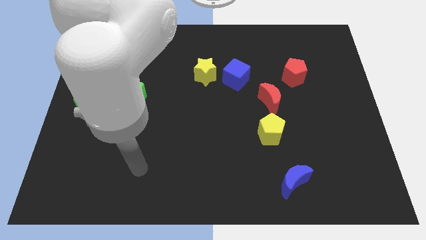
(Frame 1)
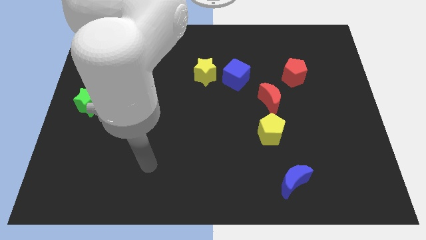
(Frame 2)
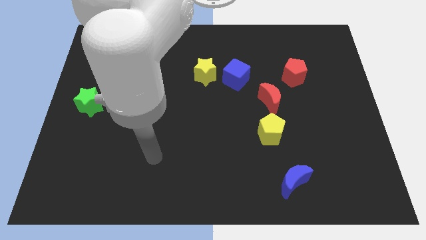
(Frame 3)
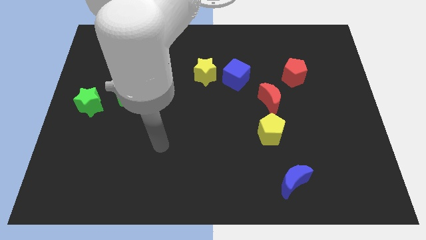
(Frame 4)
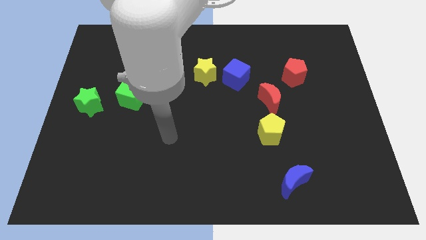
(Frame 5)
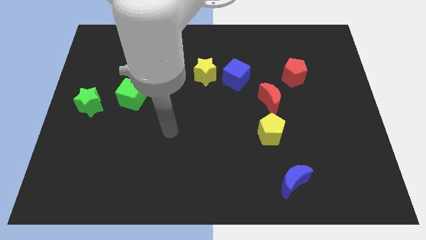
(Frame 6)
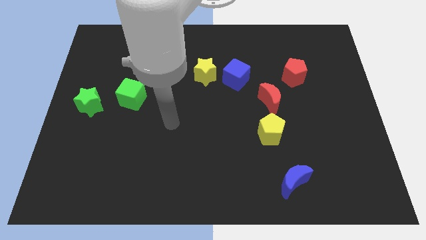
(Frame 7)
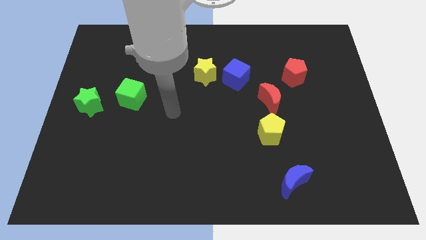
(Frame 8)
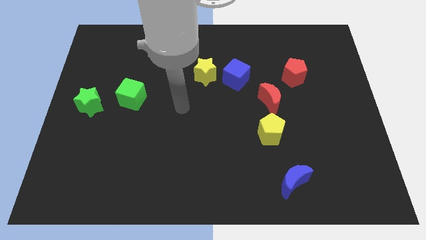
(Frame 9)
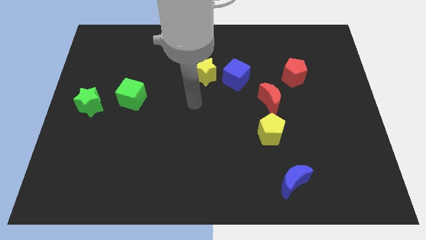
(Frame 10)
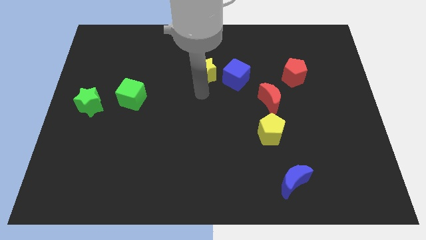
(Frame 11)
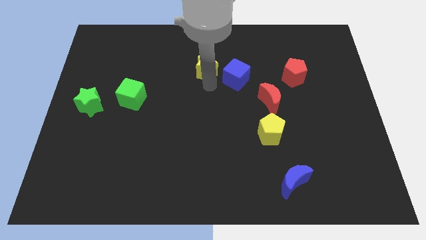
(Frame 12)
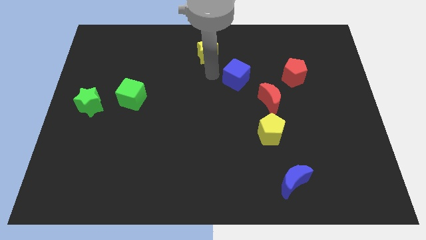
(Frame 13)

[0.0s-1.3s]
pull the blue cube apart from the yellow star

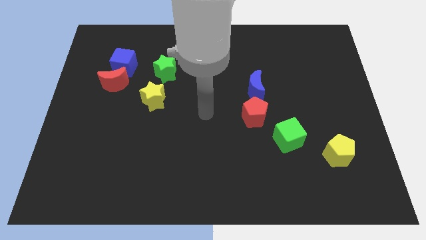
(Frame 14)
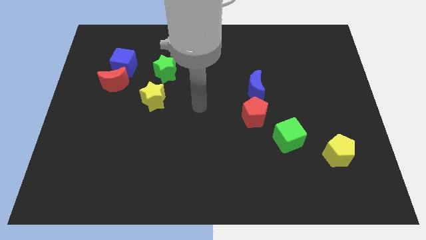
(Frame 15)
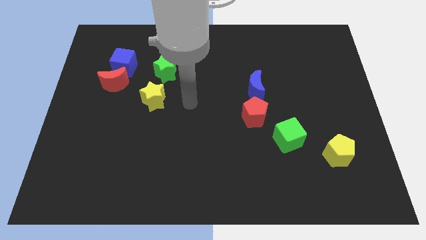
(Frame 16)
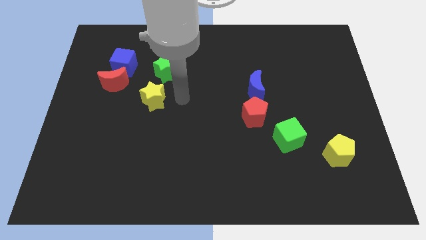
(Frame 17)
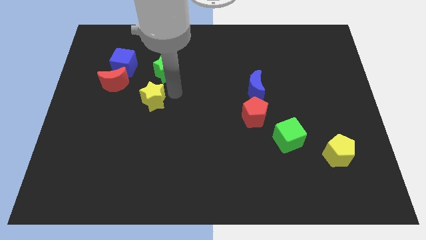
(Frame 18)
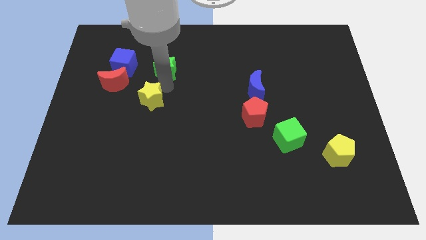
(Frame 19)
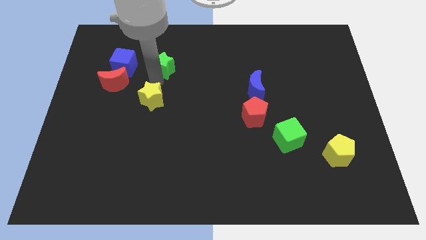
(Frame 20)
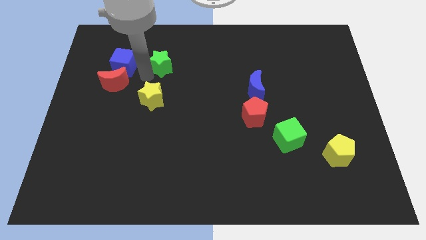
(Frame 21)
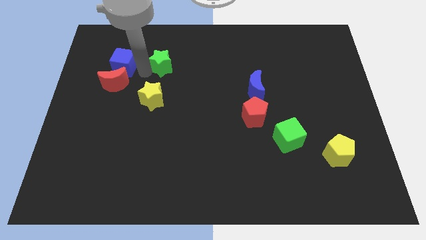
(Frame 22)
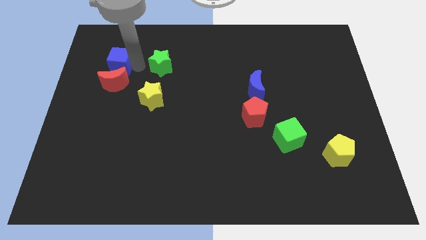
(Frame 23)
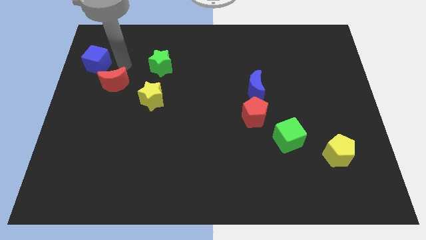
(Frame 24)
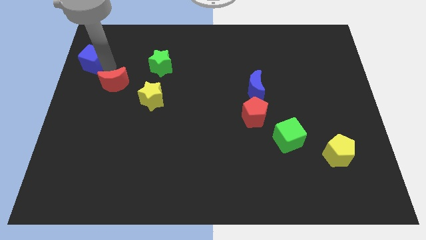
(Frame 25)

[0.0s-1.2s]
pull the red moon apart from the blue cube

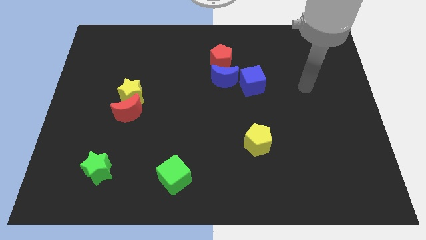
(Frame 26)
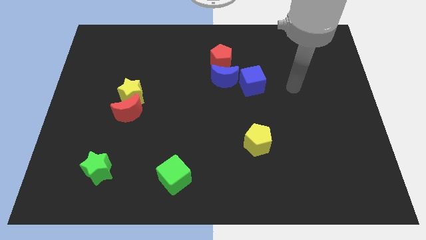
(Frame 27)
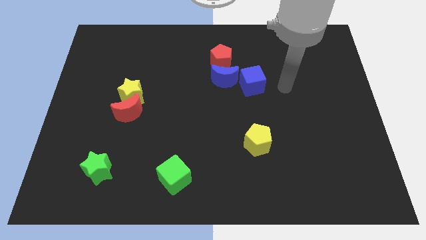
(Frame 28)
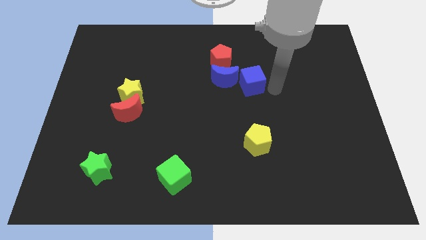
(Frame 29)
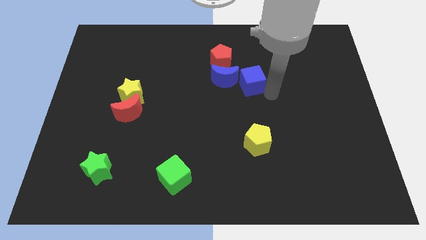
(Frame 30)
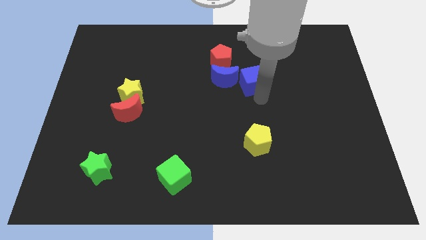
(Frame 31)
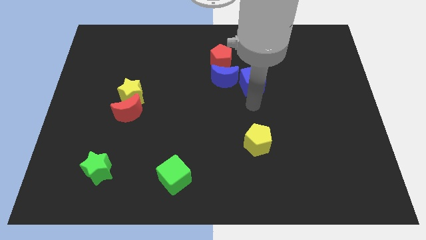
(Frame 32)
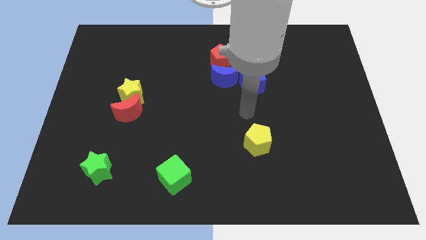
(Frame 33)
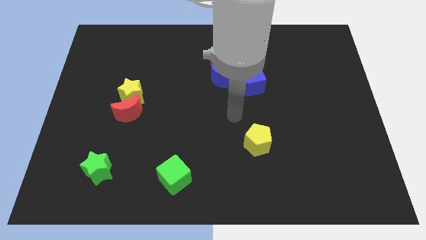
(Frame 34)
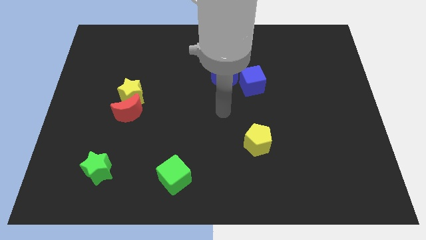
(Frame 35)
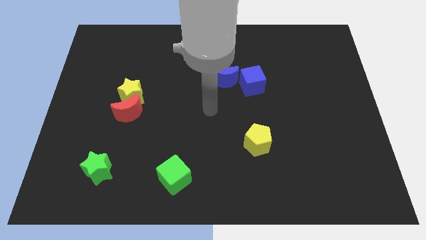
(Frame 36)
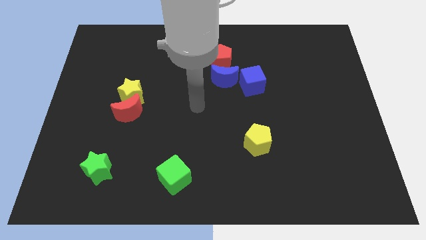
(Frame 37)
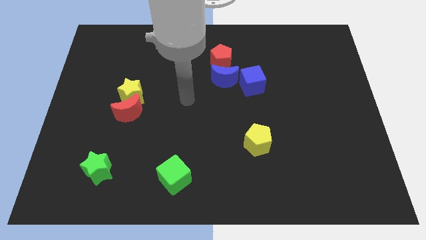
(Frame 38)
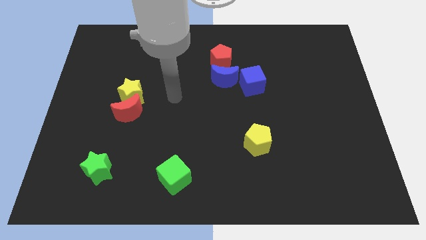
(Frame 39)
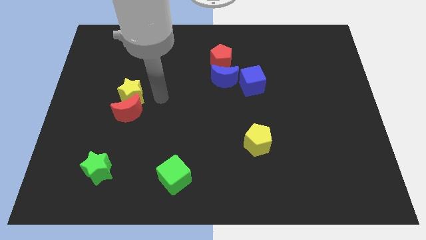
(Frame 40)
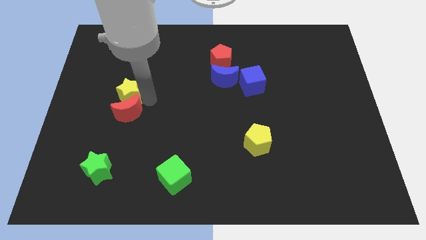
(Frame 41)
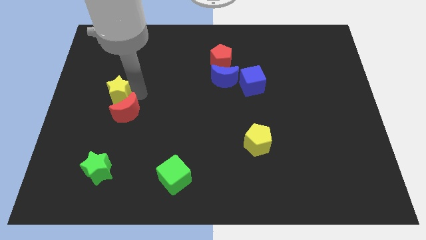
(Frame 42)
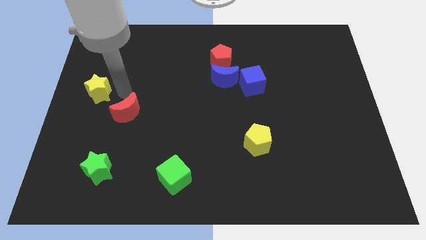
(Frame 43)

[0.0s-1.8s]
move the red moon away from the yellow star

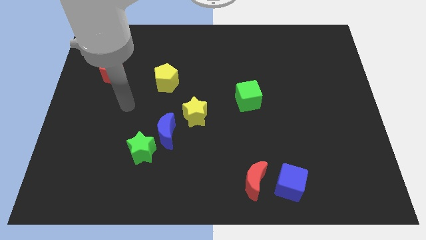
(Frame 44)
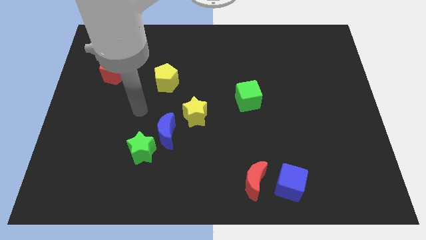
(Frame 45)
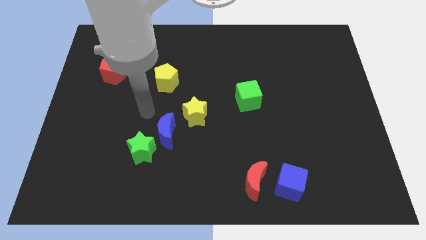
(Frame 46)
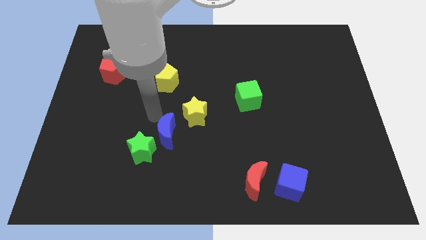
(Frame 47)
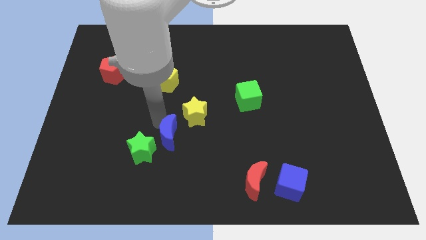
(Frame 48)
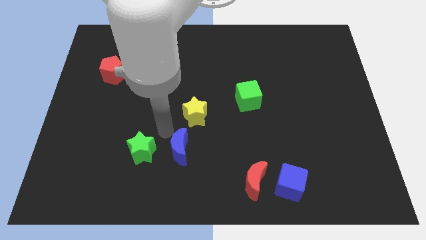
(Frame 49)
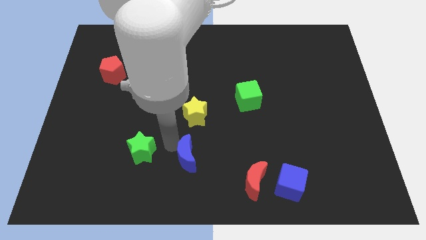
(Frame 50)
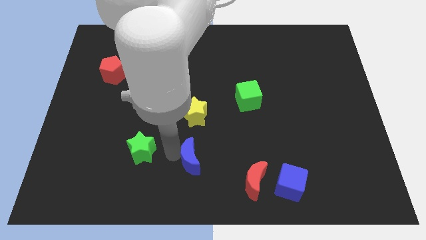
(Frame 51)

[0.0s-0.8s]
move the green star away from the blue moon

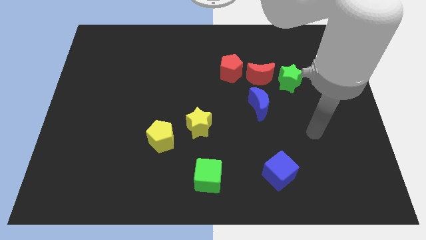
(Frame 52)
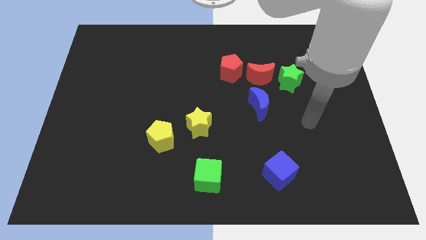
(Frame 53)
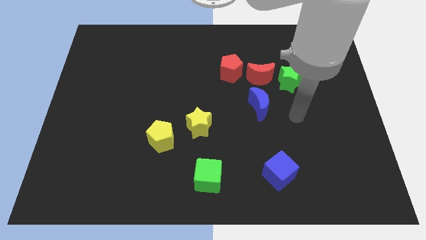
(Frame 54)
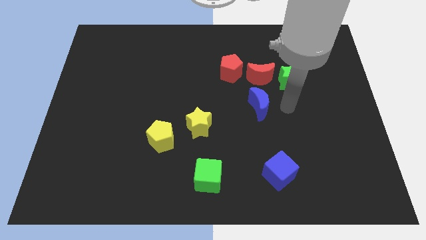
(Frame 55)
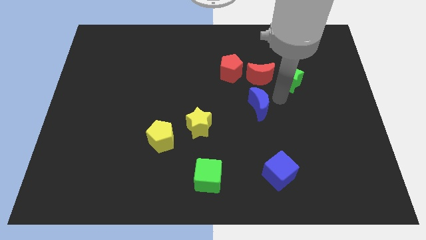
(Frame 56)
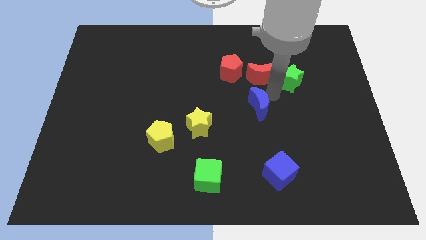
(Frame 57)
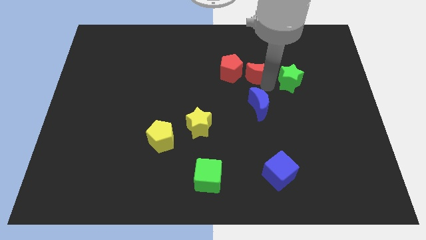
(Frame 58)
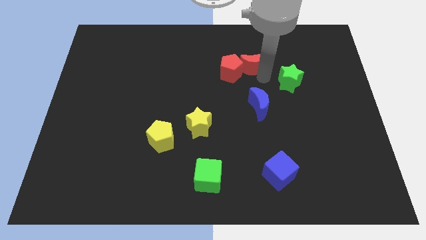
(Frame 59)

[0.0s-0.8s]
move the green star away from the red moon

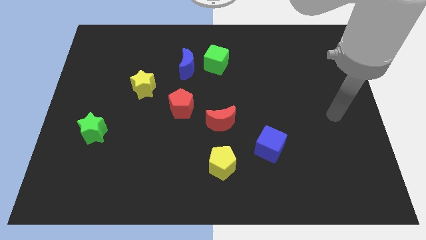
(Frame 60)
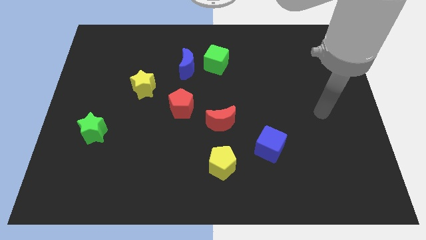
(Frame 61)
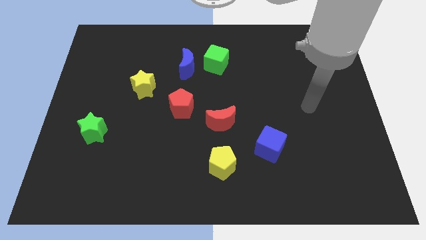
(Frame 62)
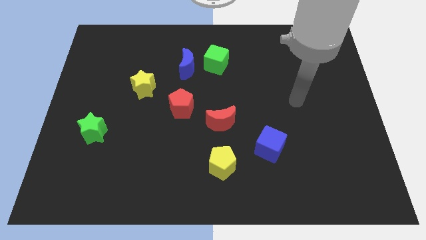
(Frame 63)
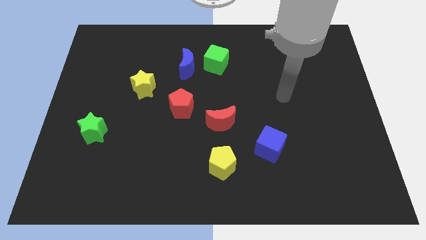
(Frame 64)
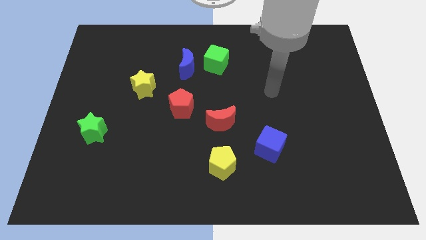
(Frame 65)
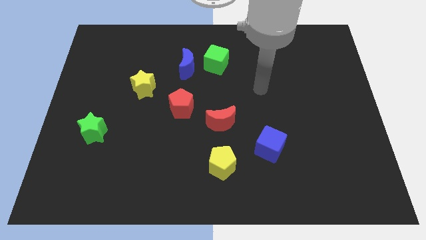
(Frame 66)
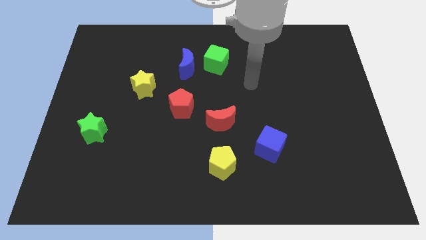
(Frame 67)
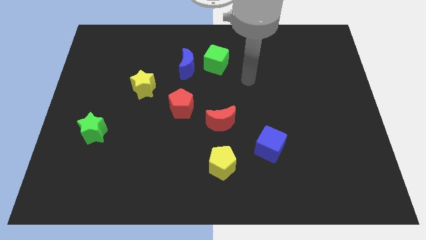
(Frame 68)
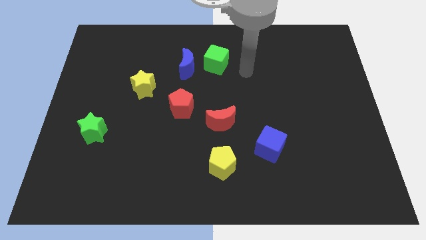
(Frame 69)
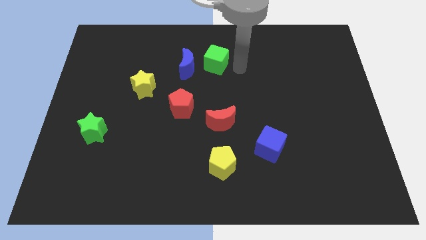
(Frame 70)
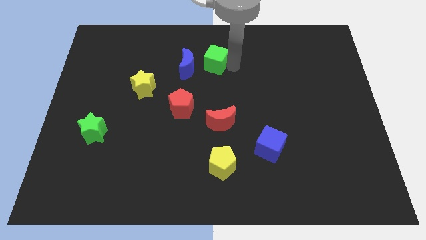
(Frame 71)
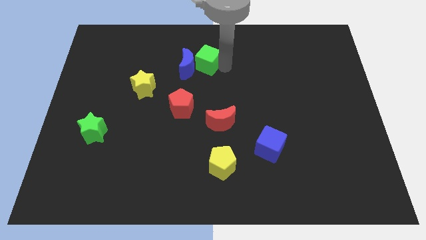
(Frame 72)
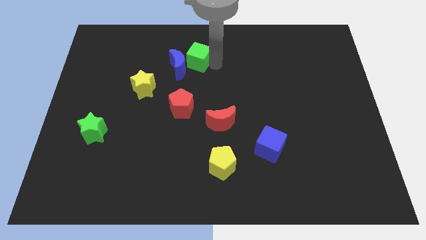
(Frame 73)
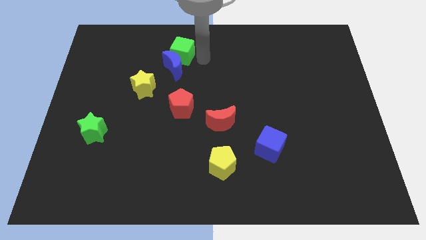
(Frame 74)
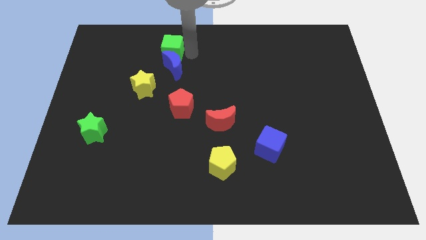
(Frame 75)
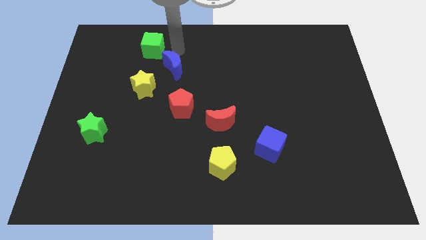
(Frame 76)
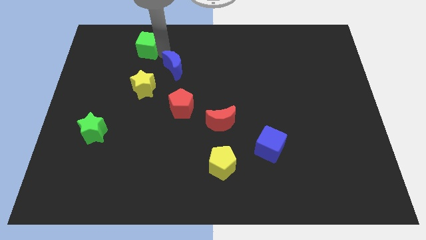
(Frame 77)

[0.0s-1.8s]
separate the blue moon from the green cube

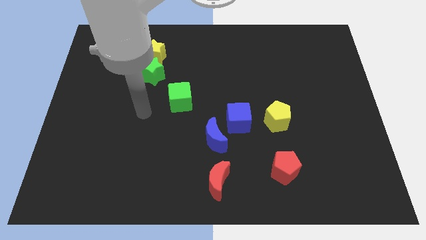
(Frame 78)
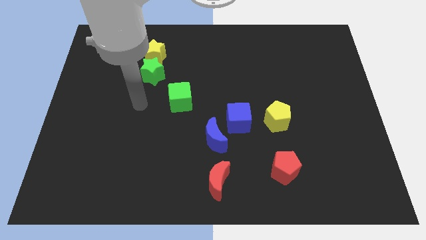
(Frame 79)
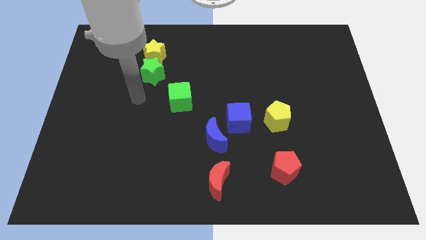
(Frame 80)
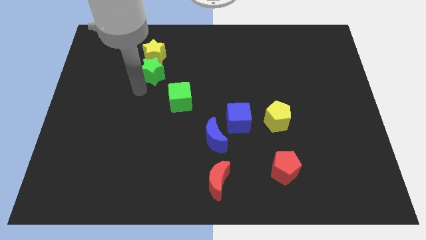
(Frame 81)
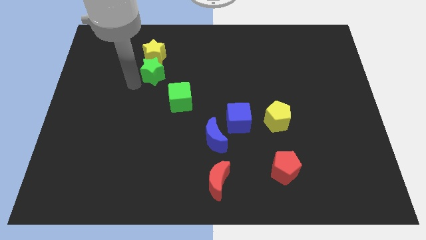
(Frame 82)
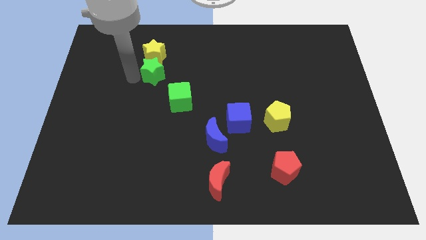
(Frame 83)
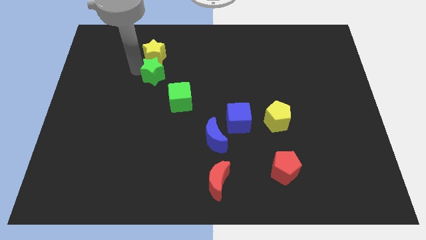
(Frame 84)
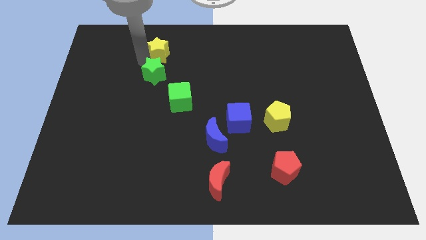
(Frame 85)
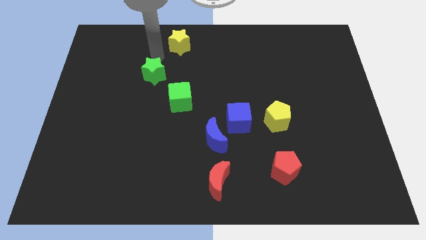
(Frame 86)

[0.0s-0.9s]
pull the green star apart from the yellow star

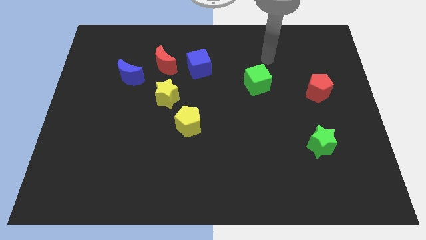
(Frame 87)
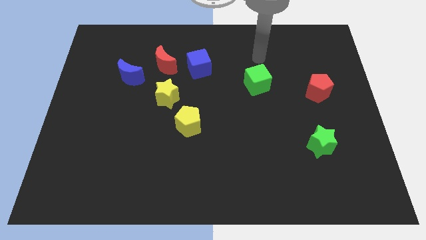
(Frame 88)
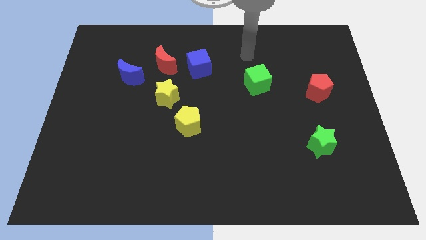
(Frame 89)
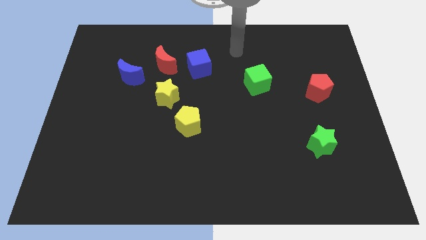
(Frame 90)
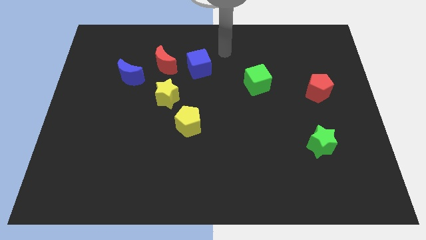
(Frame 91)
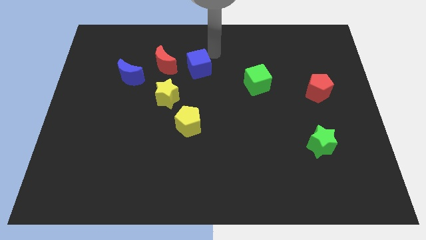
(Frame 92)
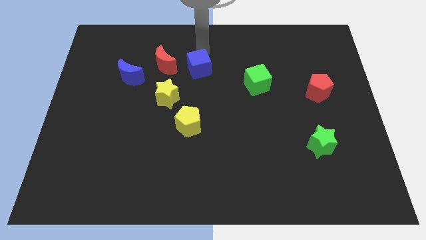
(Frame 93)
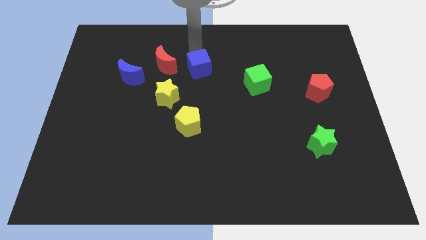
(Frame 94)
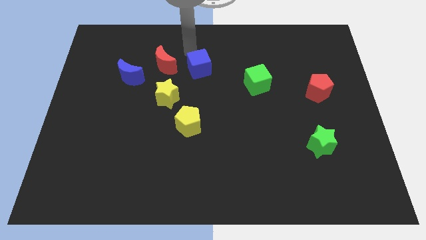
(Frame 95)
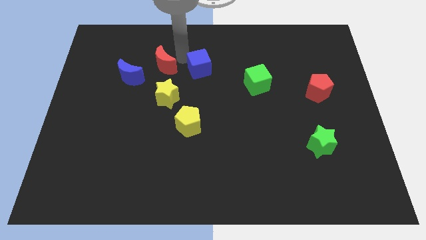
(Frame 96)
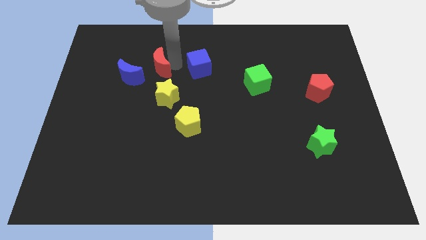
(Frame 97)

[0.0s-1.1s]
pull the blue cube apart from the red moon
